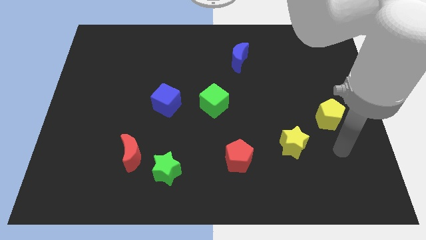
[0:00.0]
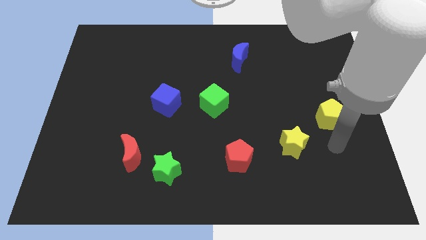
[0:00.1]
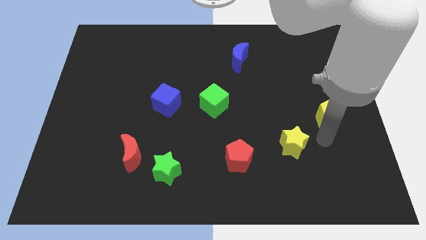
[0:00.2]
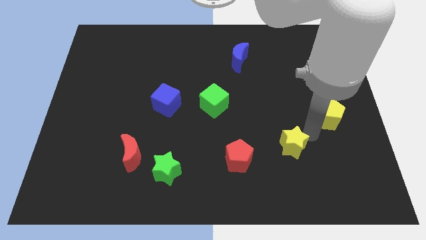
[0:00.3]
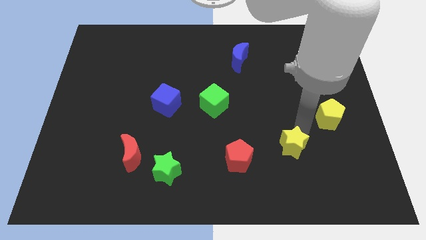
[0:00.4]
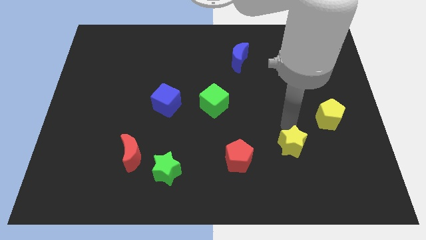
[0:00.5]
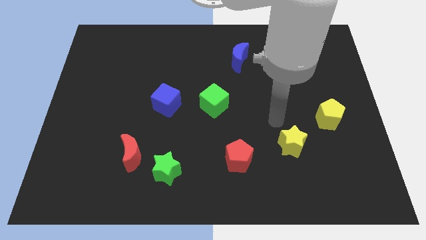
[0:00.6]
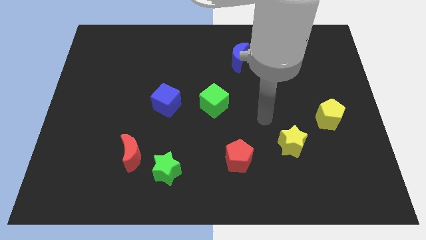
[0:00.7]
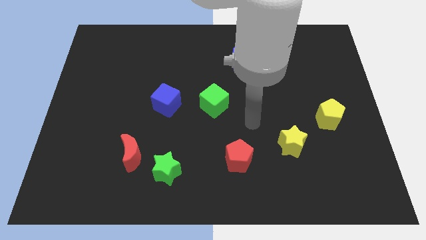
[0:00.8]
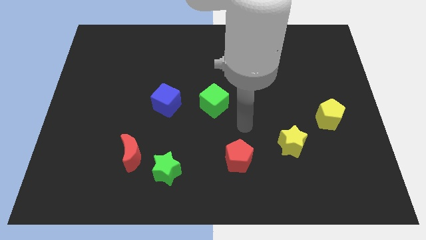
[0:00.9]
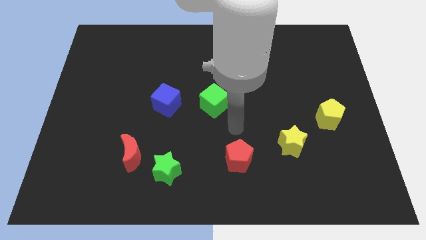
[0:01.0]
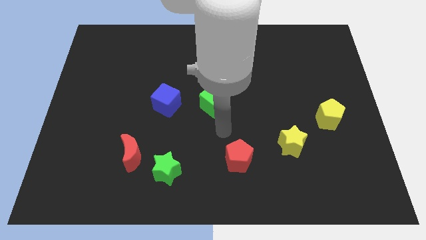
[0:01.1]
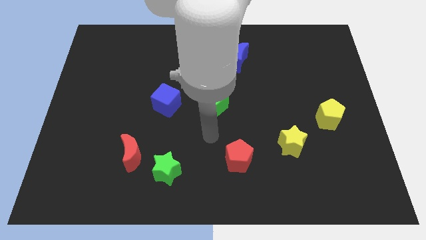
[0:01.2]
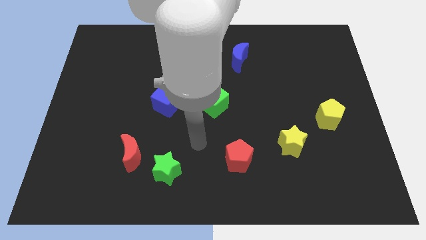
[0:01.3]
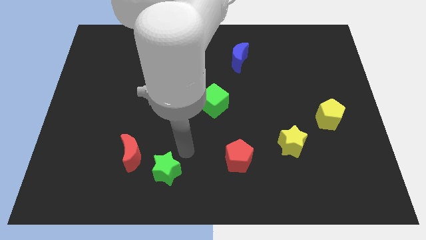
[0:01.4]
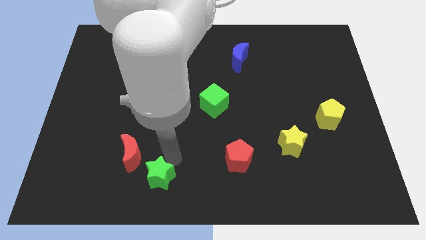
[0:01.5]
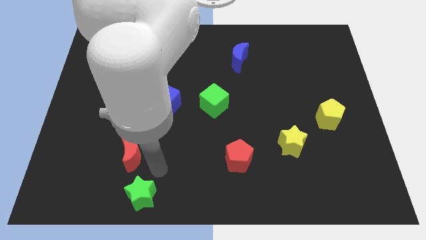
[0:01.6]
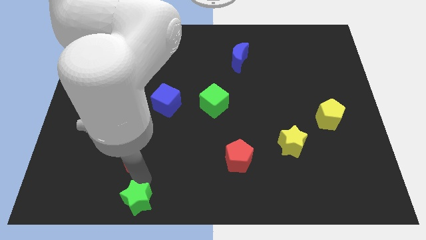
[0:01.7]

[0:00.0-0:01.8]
move the red moon away from the green star

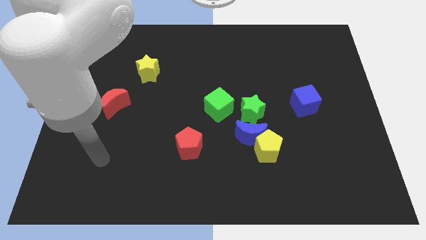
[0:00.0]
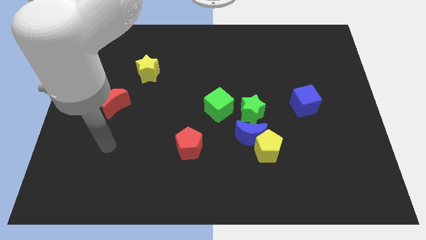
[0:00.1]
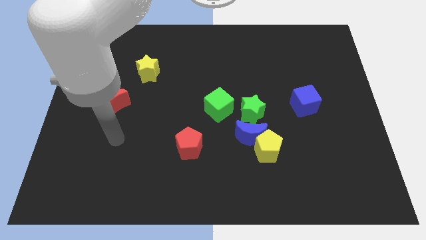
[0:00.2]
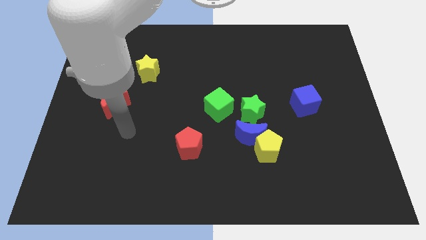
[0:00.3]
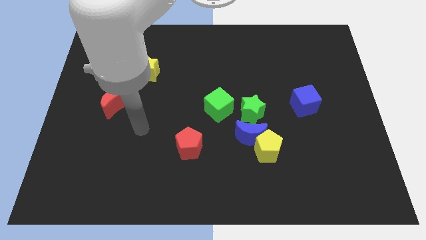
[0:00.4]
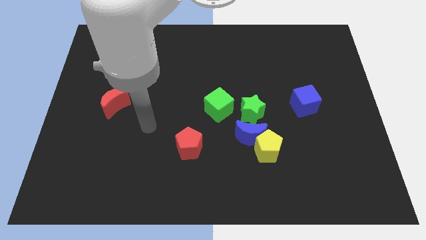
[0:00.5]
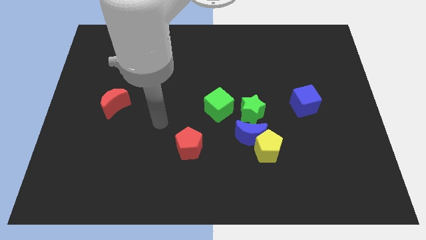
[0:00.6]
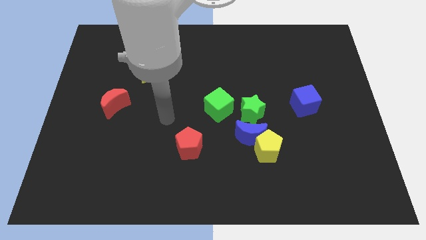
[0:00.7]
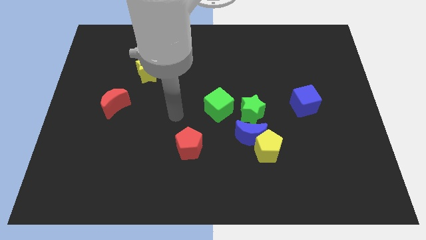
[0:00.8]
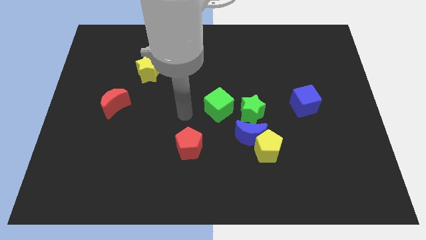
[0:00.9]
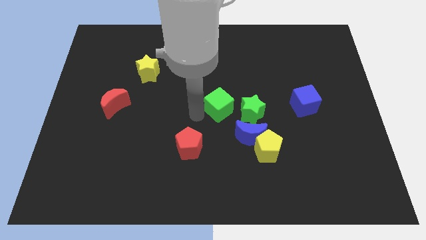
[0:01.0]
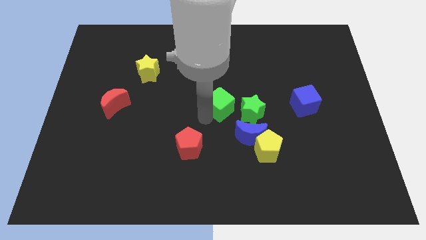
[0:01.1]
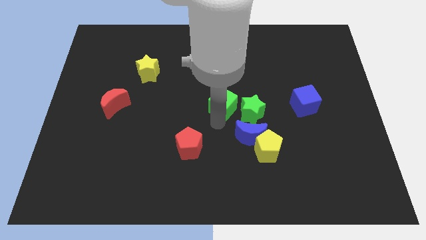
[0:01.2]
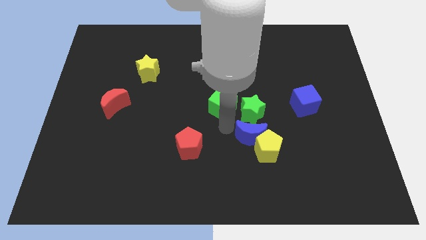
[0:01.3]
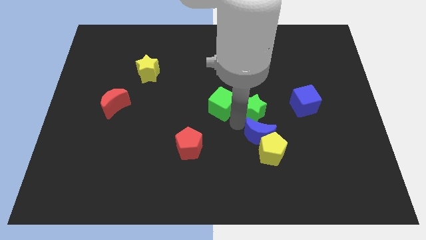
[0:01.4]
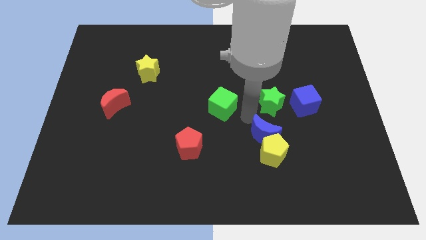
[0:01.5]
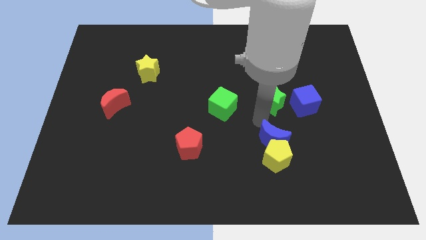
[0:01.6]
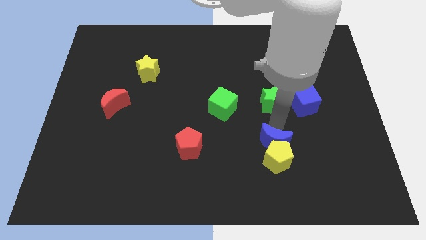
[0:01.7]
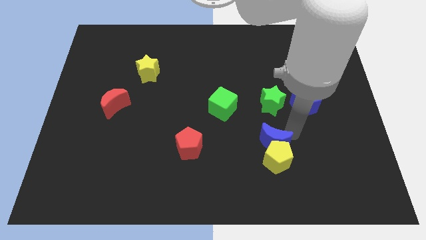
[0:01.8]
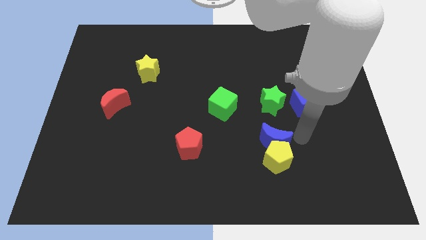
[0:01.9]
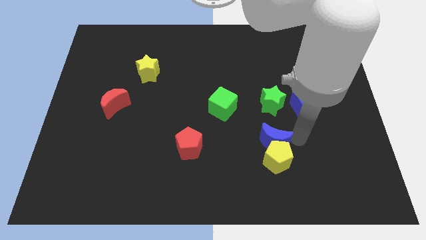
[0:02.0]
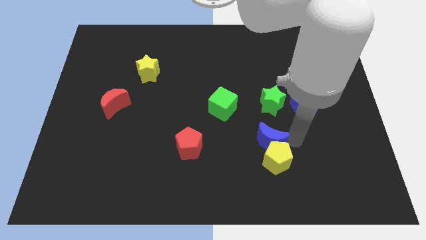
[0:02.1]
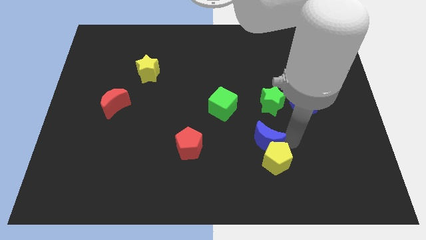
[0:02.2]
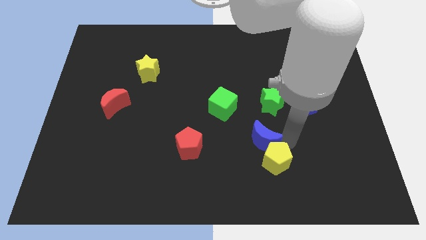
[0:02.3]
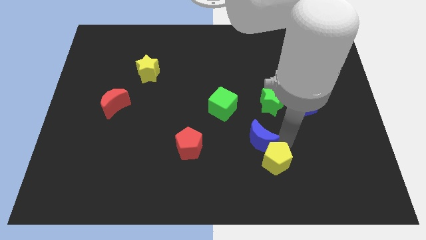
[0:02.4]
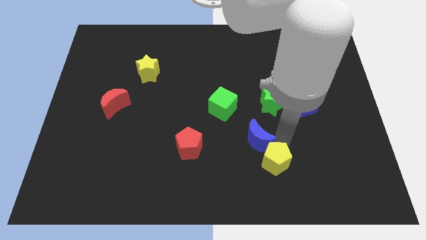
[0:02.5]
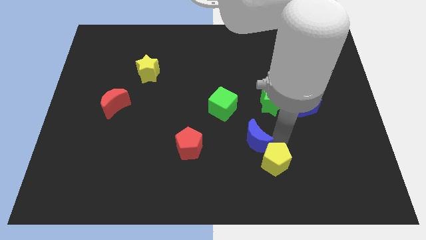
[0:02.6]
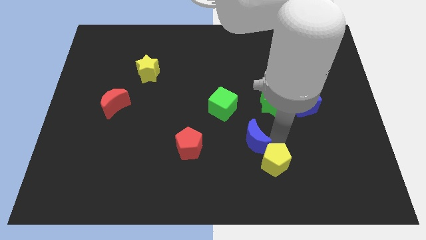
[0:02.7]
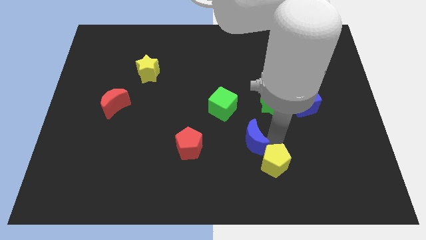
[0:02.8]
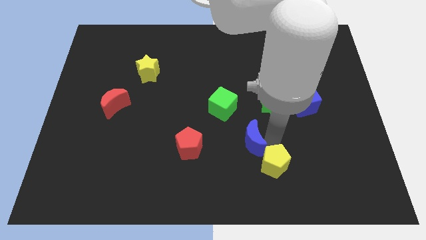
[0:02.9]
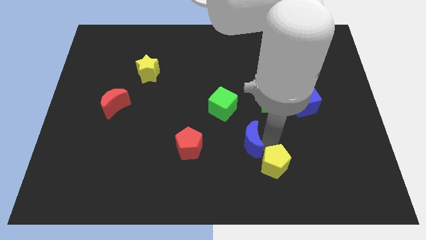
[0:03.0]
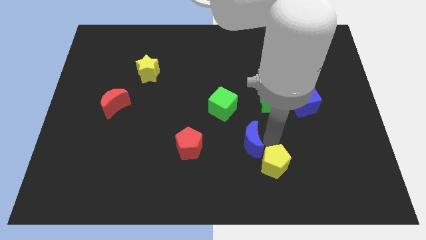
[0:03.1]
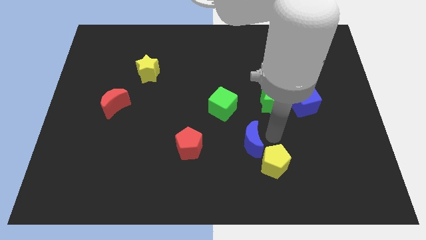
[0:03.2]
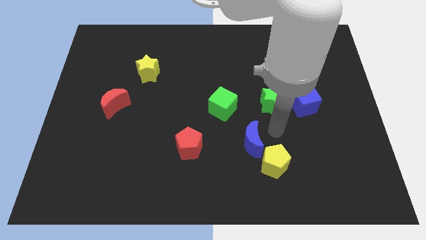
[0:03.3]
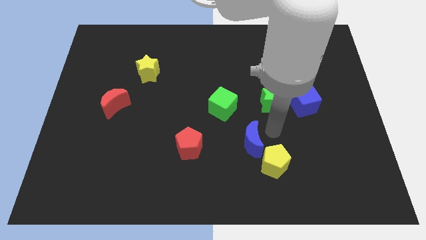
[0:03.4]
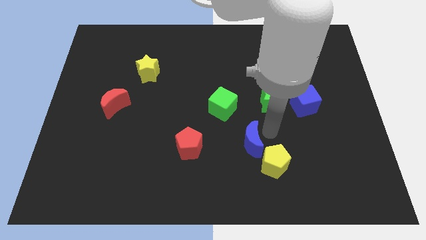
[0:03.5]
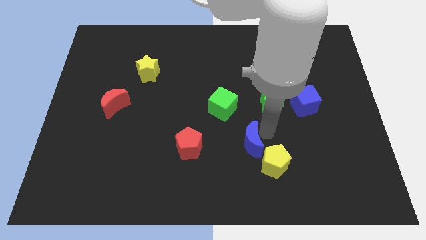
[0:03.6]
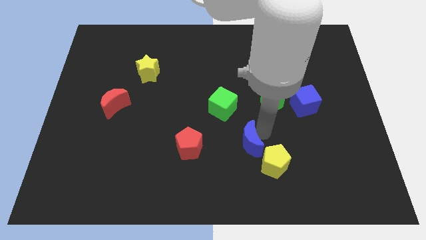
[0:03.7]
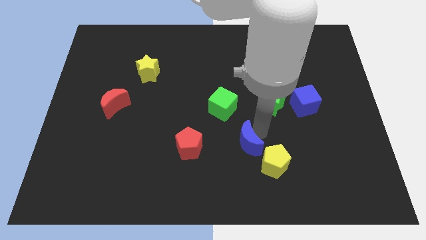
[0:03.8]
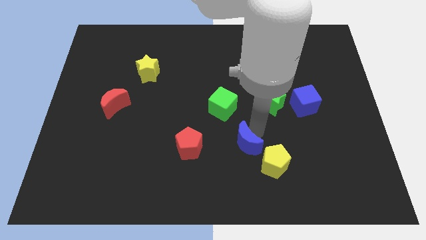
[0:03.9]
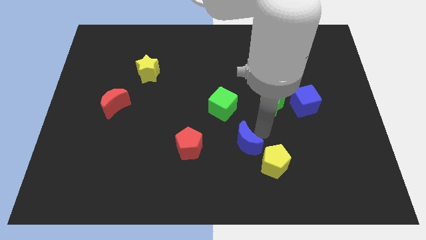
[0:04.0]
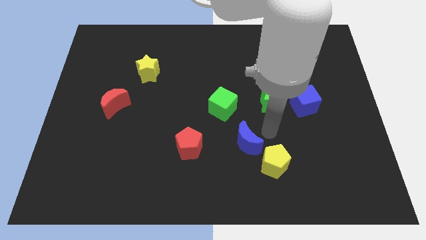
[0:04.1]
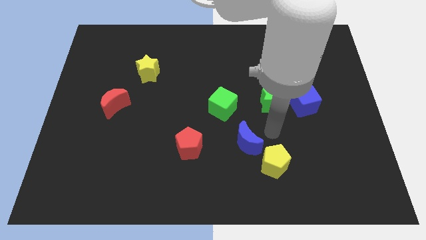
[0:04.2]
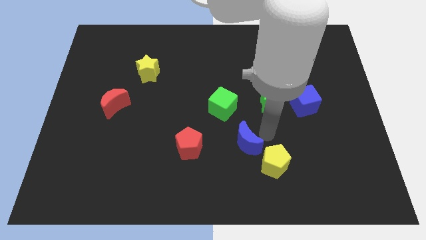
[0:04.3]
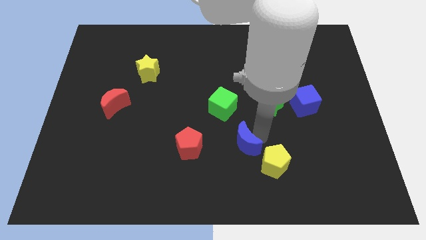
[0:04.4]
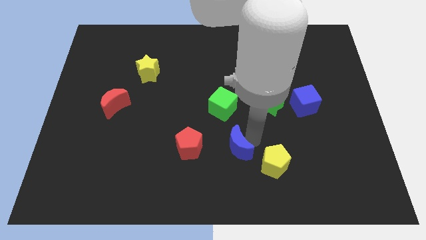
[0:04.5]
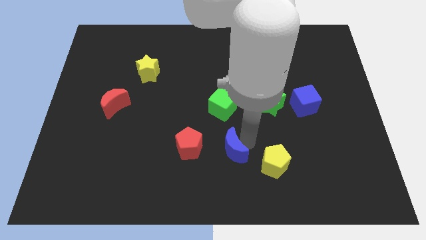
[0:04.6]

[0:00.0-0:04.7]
pull the blue moon apart from the yellow pentagon and green star

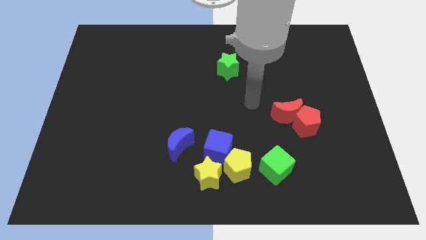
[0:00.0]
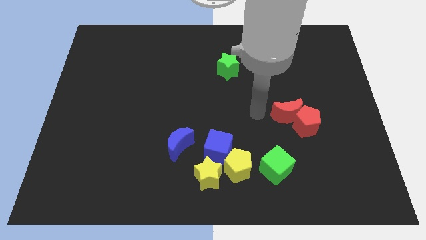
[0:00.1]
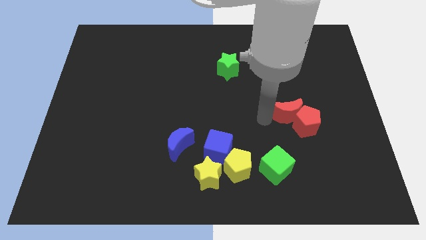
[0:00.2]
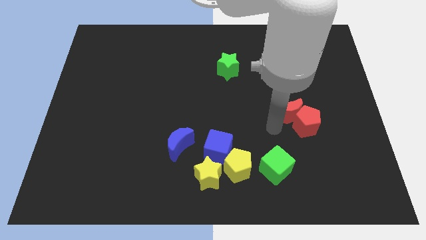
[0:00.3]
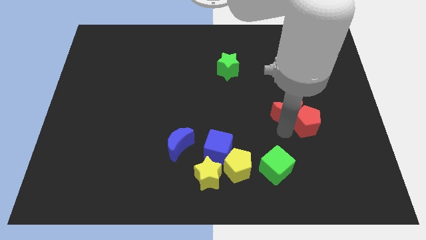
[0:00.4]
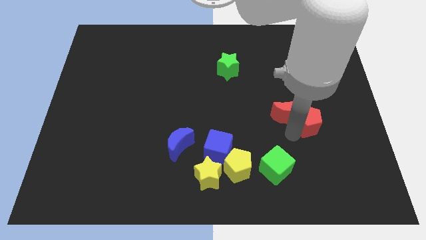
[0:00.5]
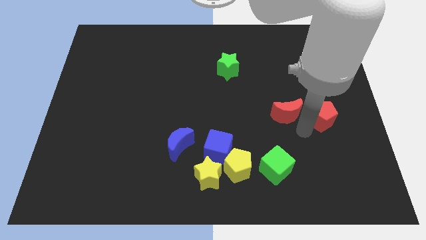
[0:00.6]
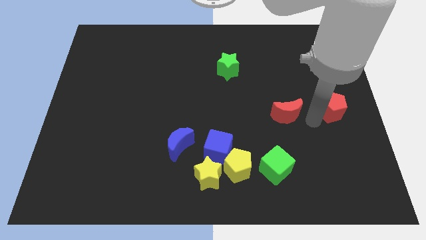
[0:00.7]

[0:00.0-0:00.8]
pull the red moon apart from the red pentagon

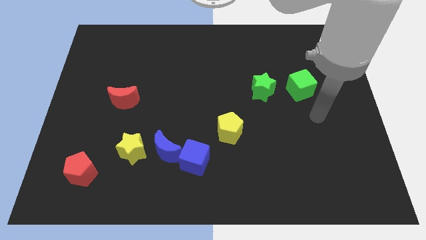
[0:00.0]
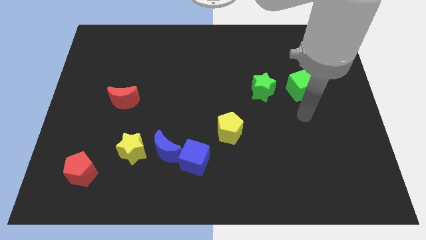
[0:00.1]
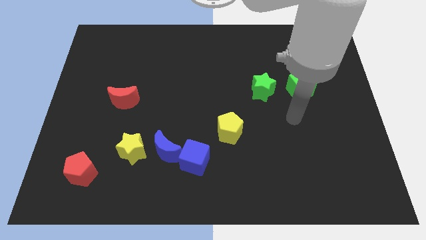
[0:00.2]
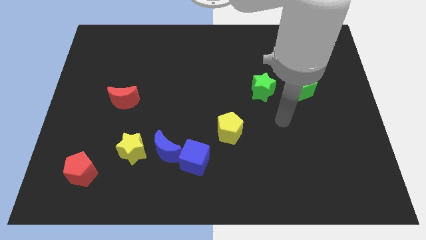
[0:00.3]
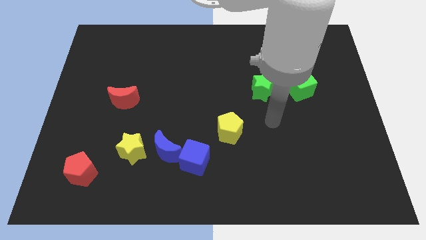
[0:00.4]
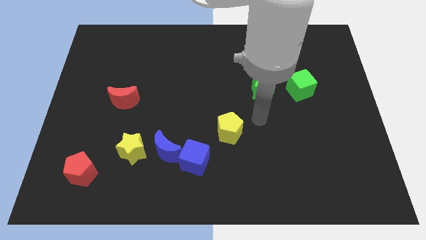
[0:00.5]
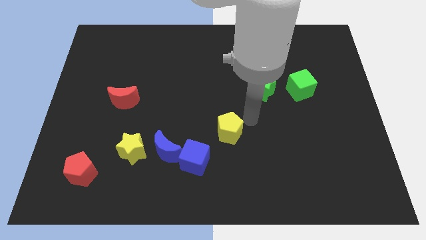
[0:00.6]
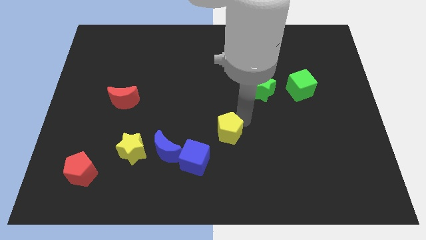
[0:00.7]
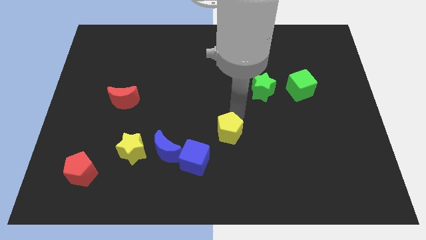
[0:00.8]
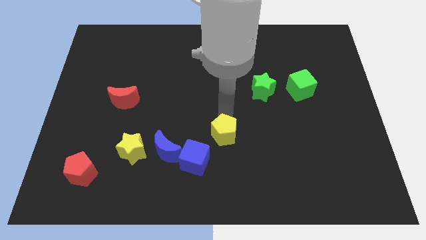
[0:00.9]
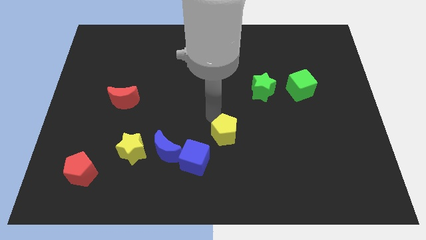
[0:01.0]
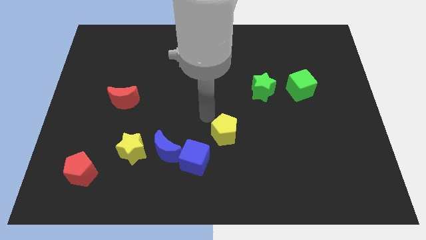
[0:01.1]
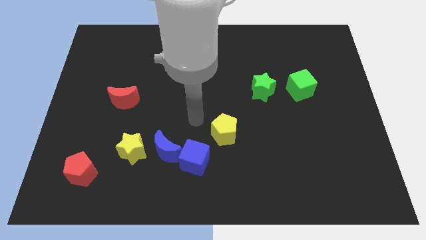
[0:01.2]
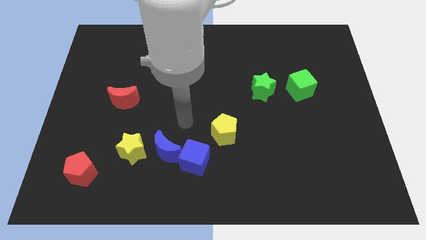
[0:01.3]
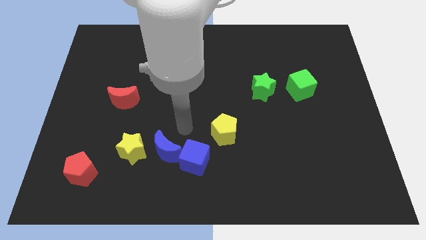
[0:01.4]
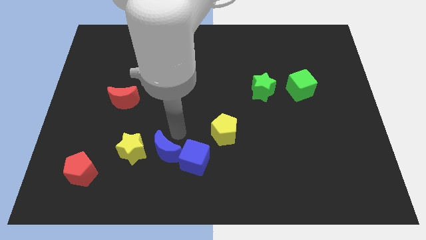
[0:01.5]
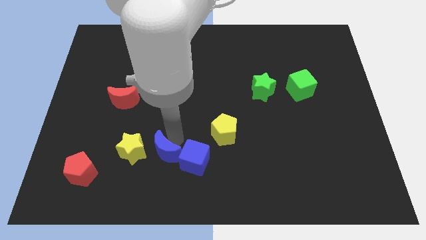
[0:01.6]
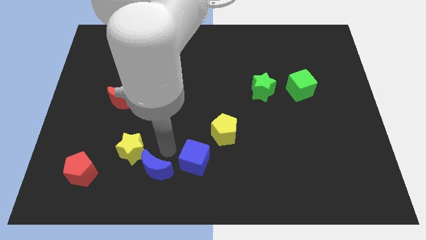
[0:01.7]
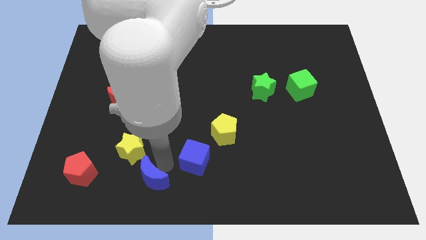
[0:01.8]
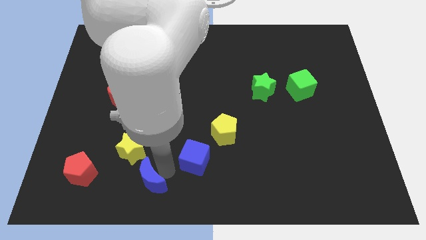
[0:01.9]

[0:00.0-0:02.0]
pull the blue cube apart from the blue moon
